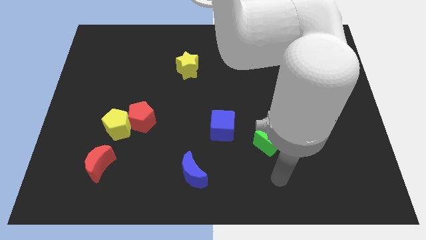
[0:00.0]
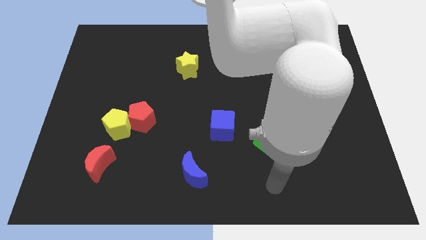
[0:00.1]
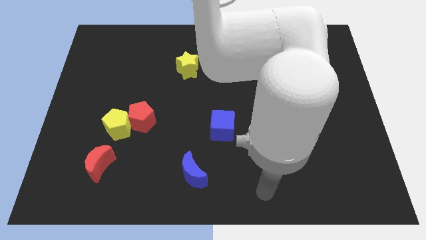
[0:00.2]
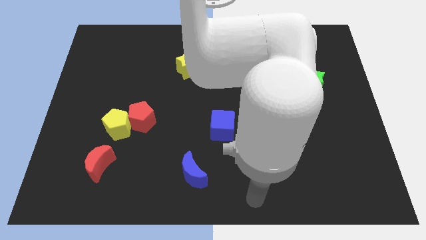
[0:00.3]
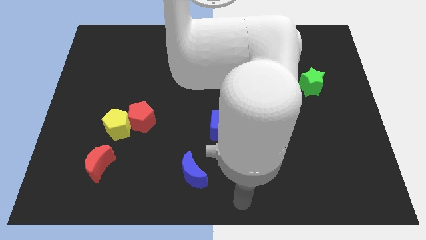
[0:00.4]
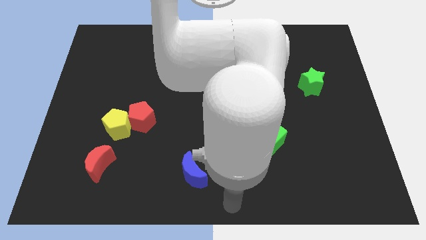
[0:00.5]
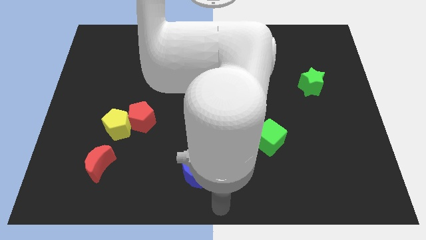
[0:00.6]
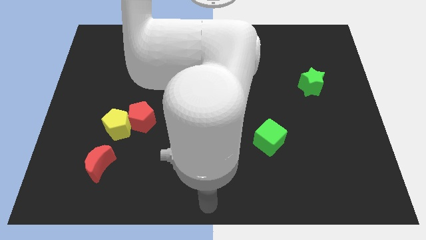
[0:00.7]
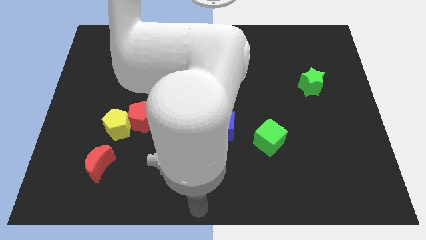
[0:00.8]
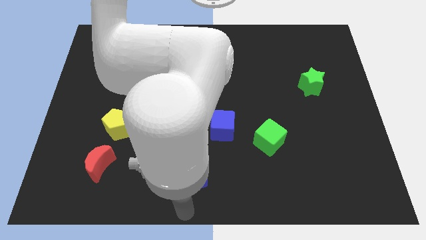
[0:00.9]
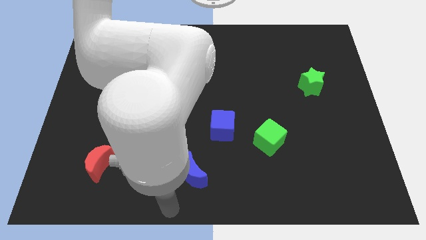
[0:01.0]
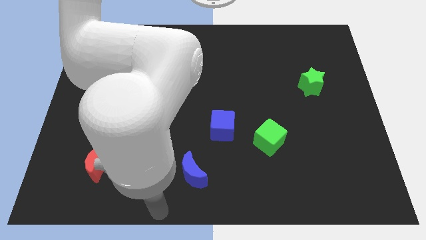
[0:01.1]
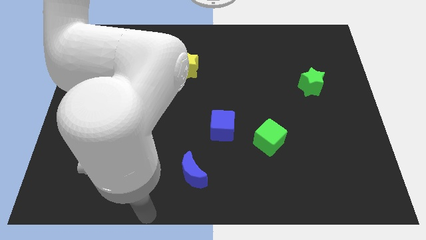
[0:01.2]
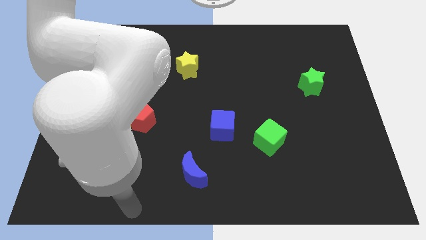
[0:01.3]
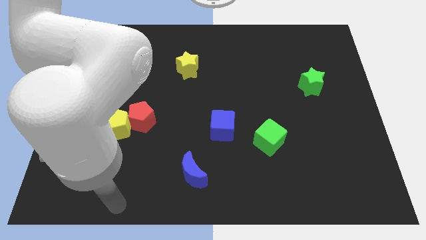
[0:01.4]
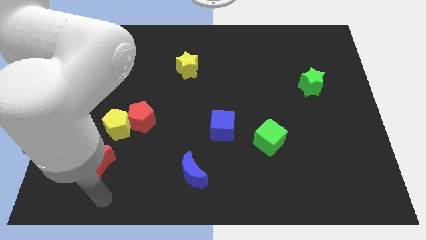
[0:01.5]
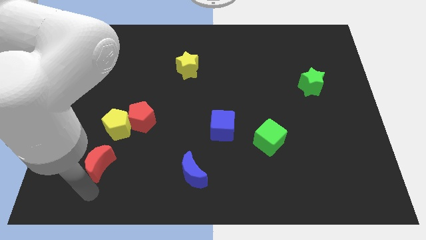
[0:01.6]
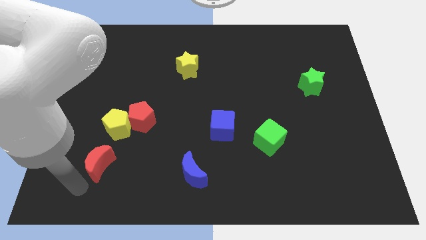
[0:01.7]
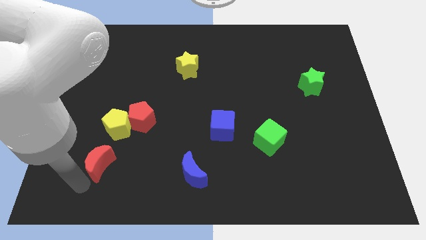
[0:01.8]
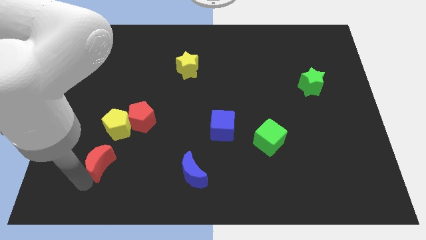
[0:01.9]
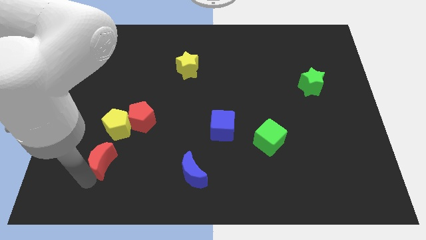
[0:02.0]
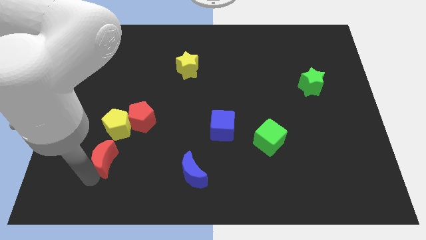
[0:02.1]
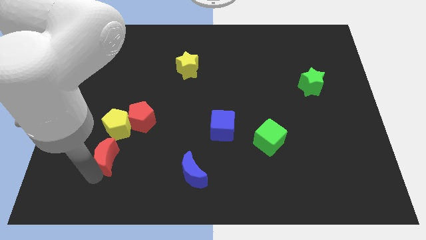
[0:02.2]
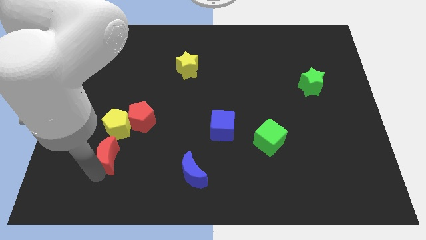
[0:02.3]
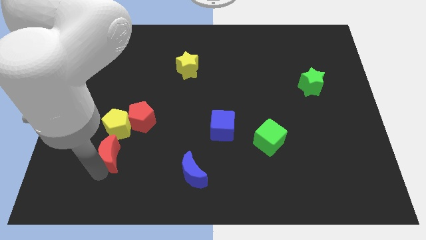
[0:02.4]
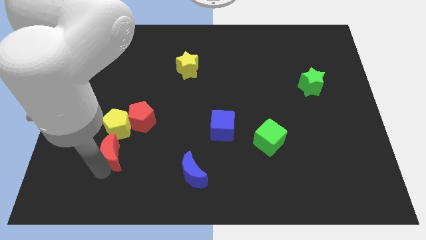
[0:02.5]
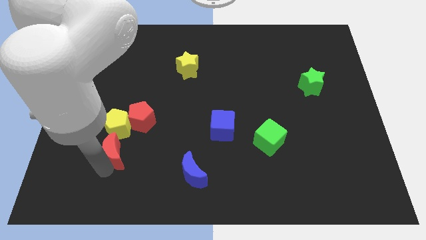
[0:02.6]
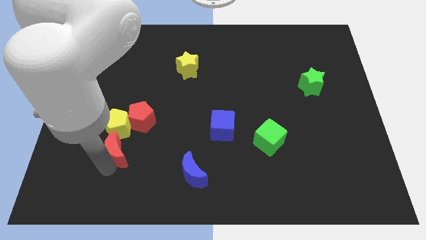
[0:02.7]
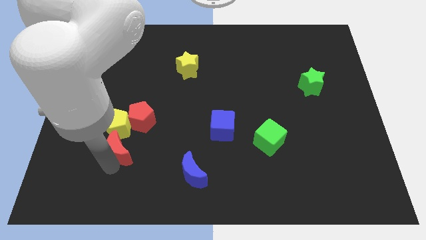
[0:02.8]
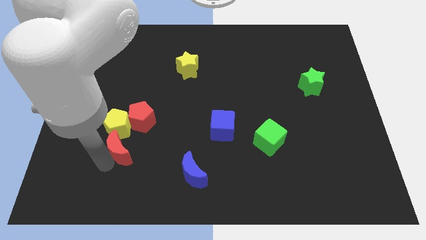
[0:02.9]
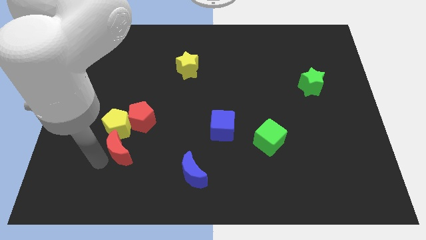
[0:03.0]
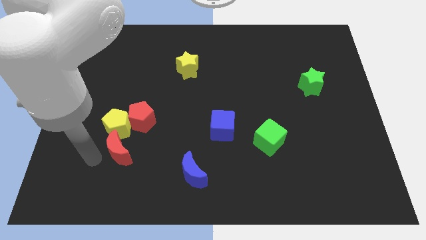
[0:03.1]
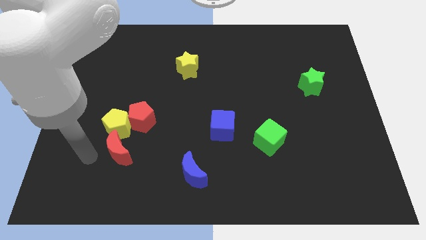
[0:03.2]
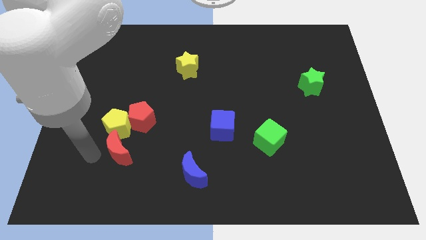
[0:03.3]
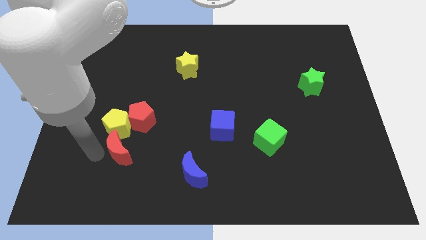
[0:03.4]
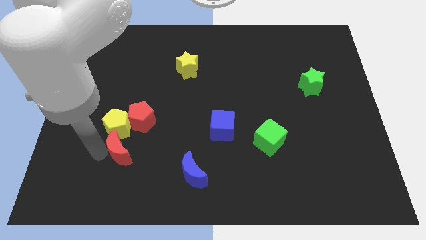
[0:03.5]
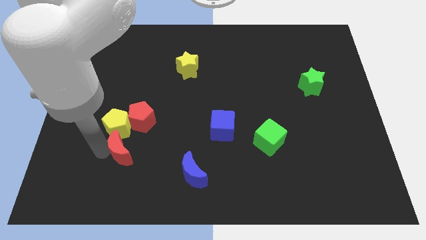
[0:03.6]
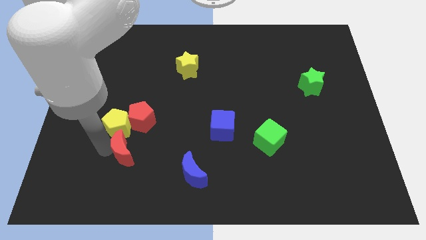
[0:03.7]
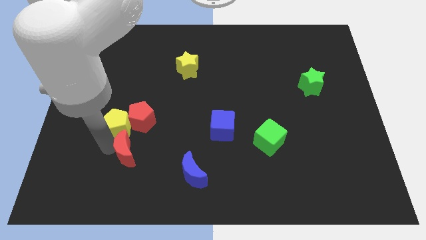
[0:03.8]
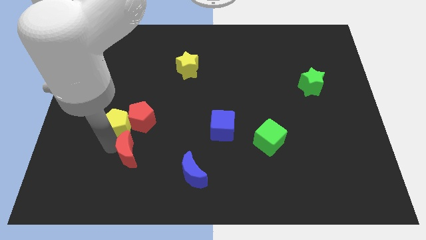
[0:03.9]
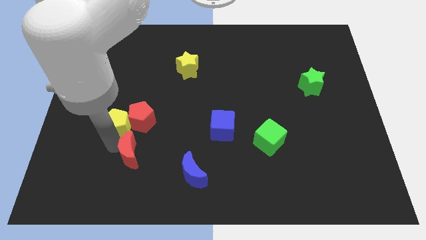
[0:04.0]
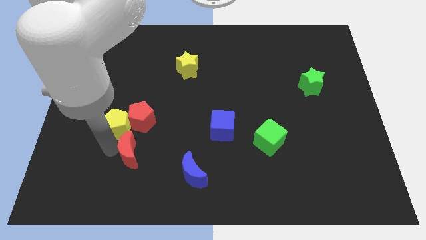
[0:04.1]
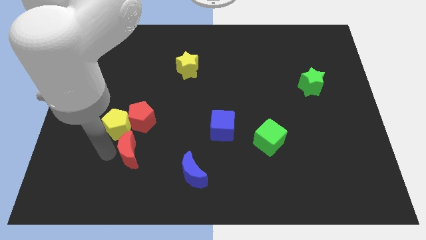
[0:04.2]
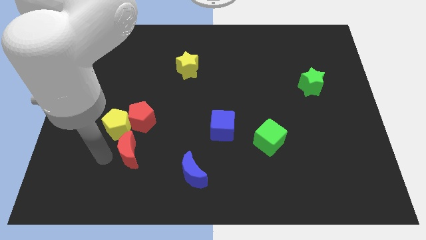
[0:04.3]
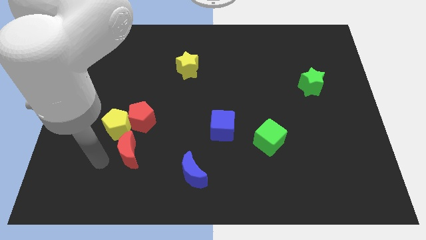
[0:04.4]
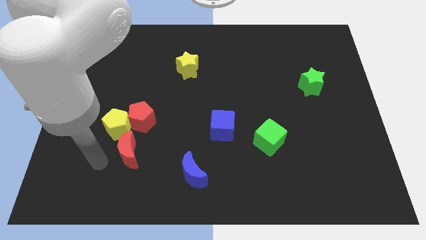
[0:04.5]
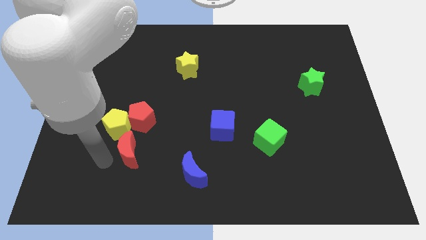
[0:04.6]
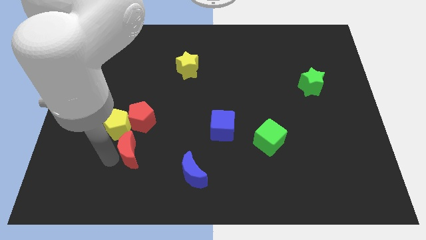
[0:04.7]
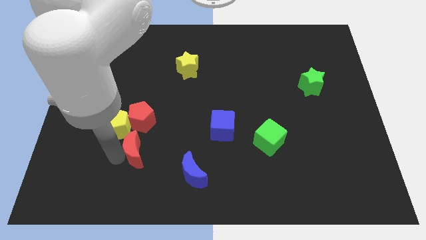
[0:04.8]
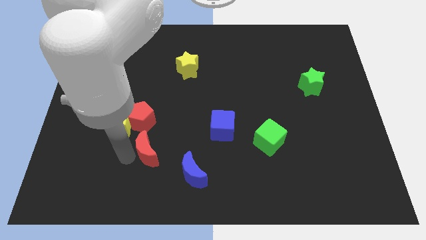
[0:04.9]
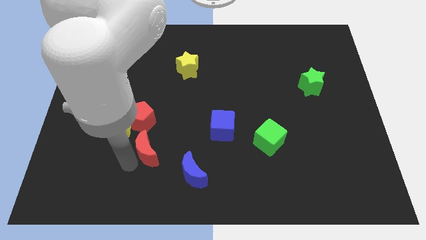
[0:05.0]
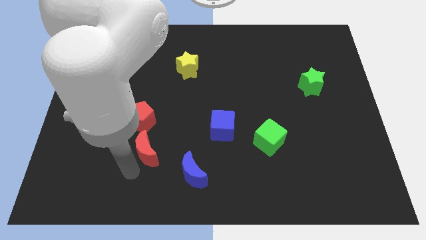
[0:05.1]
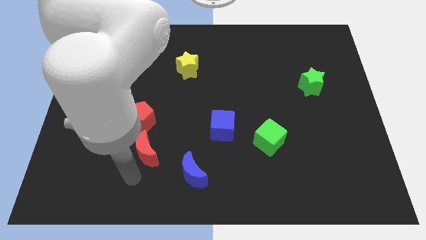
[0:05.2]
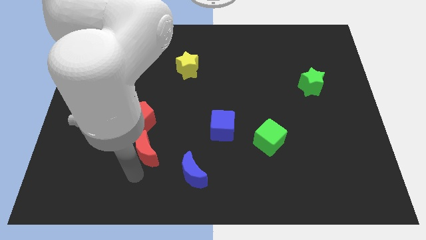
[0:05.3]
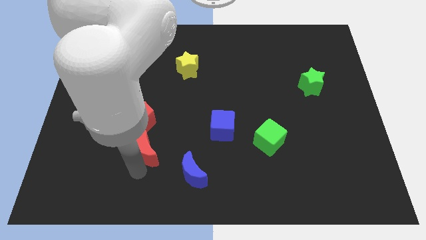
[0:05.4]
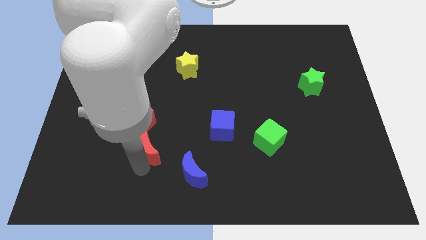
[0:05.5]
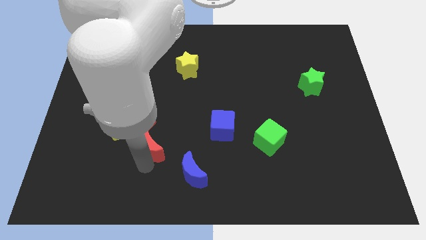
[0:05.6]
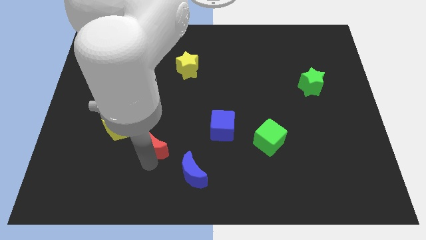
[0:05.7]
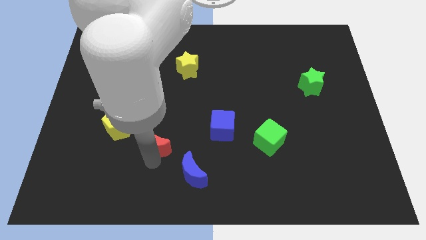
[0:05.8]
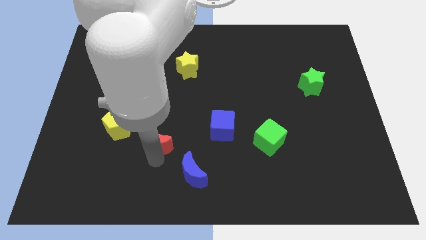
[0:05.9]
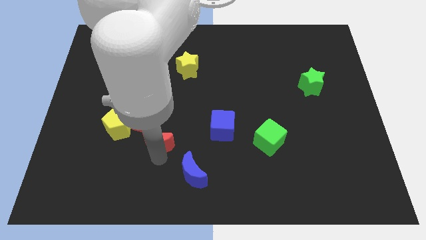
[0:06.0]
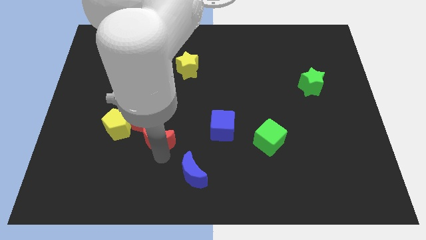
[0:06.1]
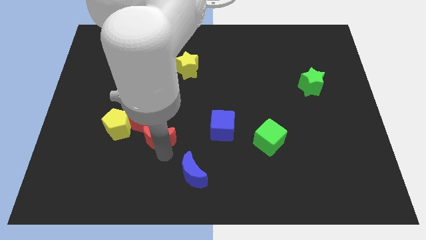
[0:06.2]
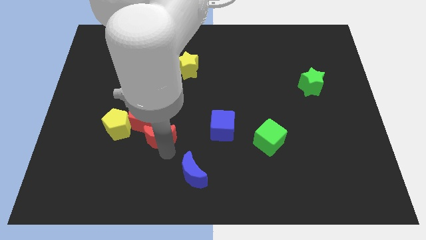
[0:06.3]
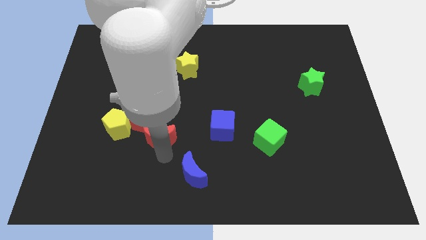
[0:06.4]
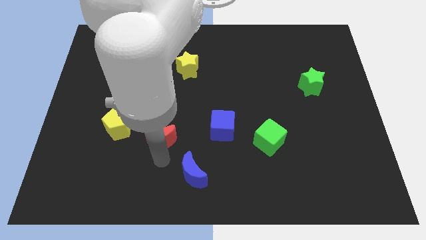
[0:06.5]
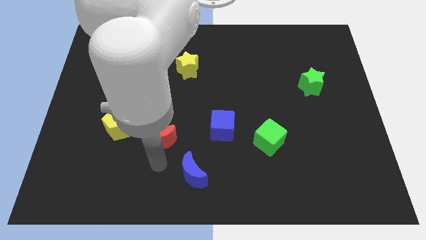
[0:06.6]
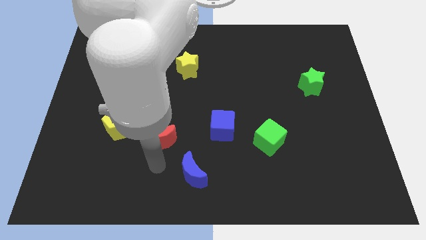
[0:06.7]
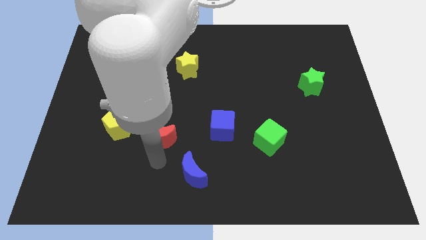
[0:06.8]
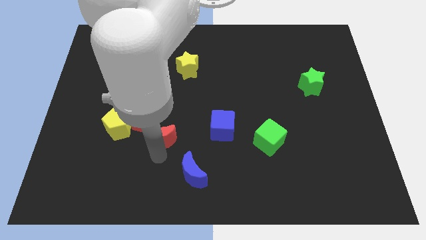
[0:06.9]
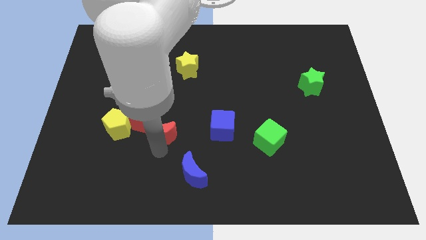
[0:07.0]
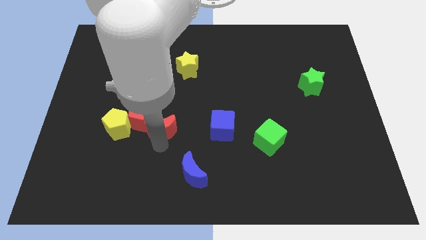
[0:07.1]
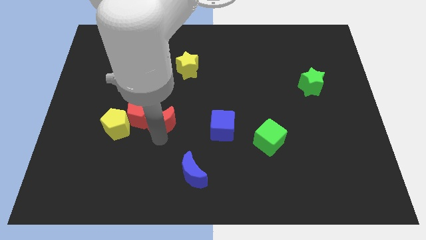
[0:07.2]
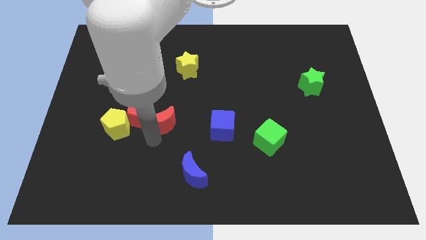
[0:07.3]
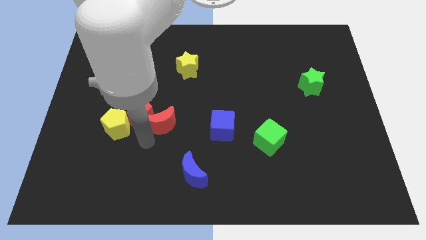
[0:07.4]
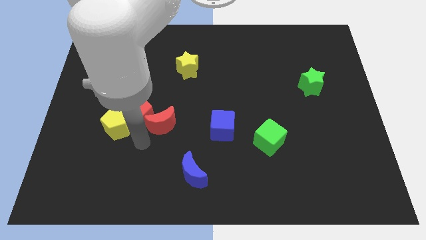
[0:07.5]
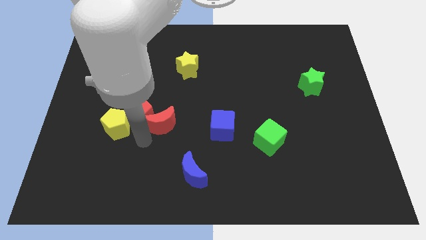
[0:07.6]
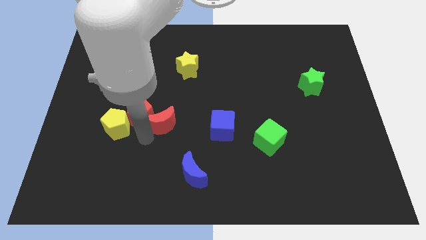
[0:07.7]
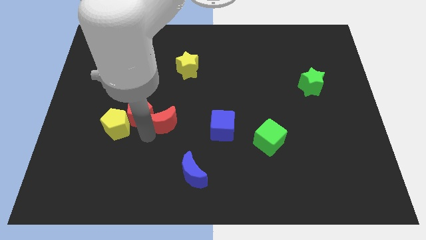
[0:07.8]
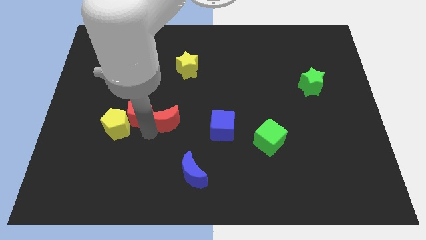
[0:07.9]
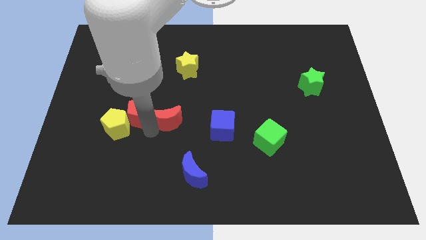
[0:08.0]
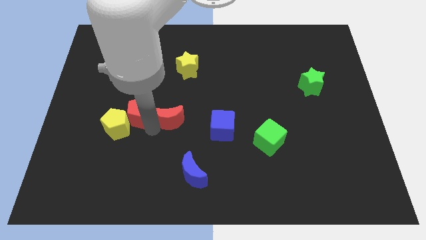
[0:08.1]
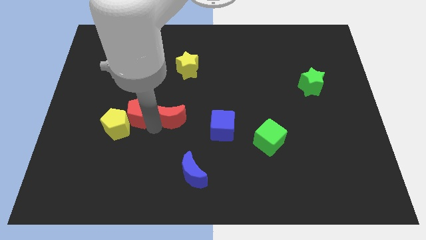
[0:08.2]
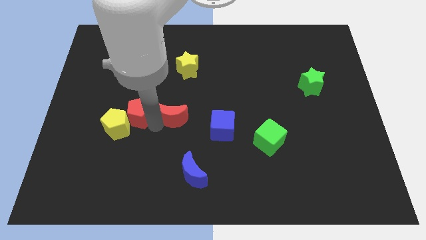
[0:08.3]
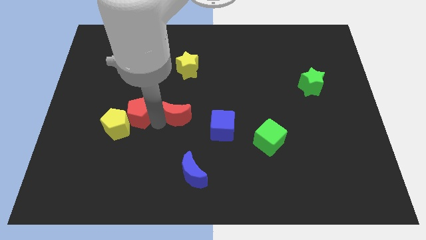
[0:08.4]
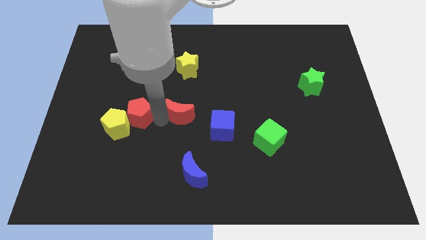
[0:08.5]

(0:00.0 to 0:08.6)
push the red moon upwards and right
